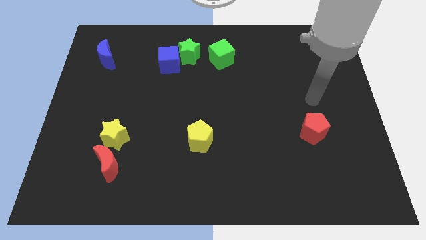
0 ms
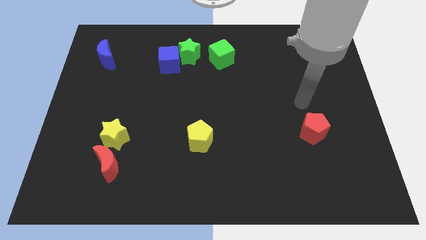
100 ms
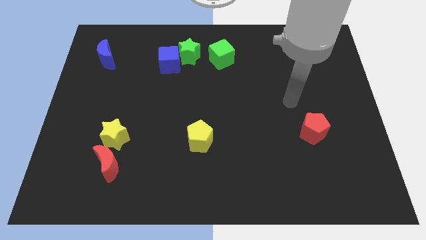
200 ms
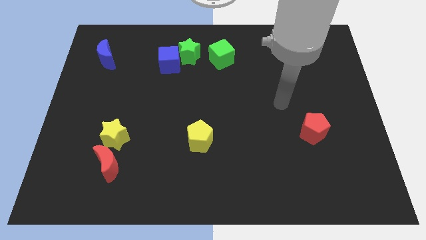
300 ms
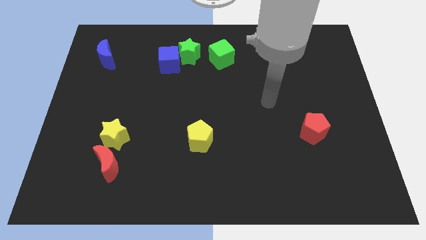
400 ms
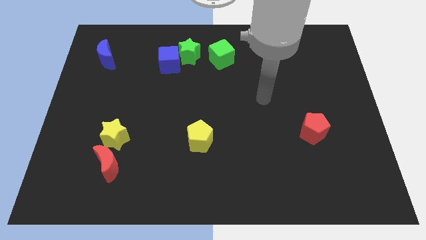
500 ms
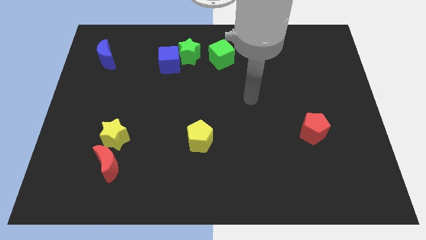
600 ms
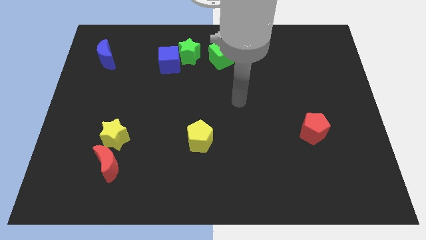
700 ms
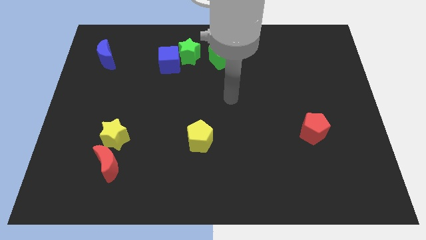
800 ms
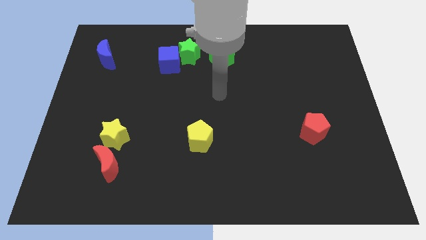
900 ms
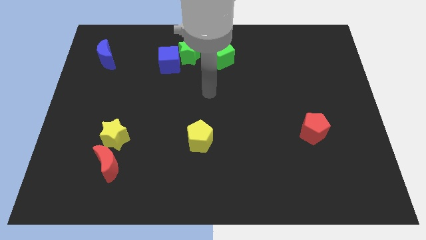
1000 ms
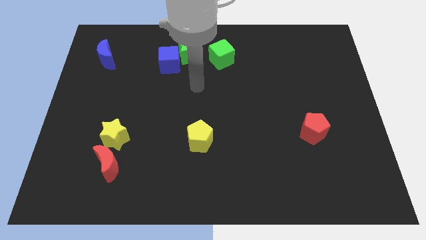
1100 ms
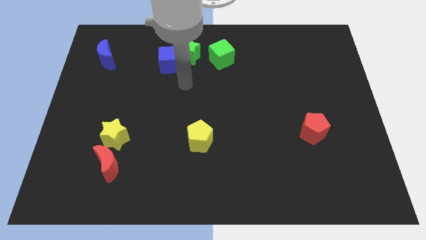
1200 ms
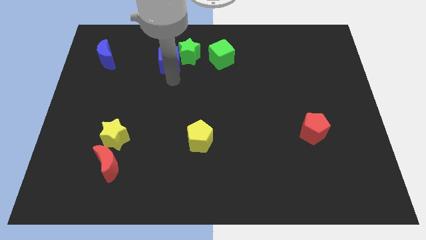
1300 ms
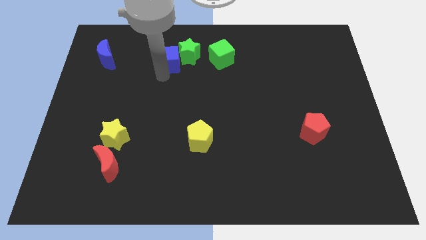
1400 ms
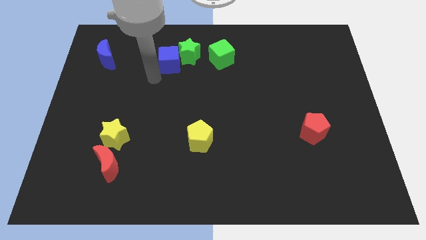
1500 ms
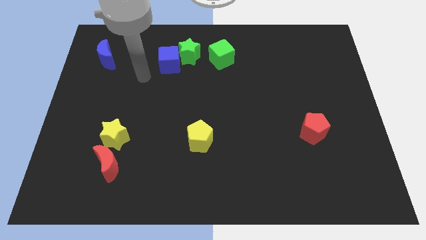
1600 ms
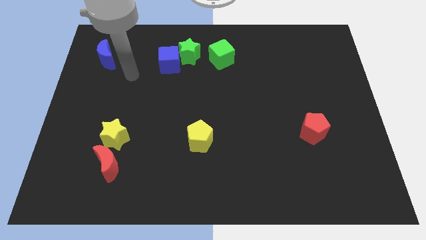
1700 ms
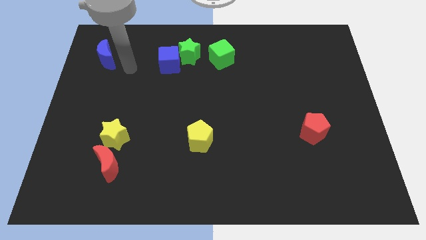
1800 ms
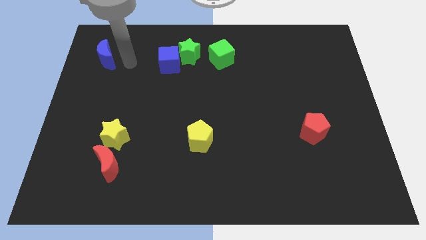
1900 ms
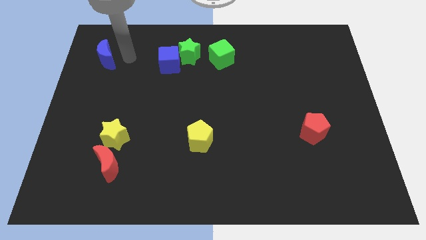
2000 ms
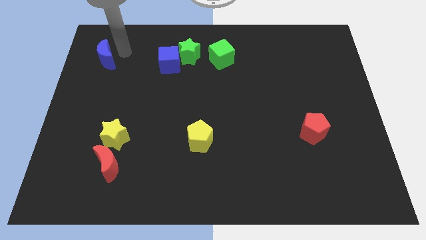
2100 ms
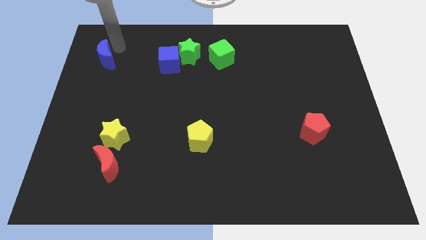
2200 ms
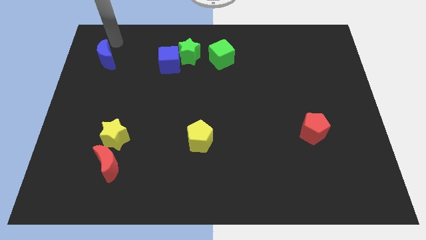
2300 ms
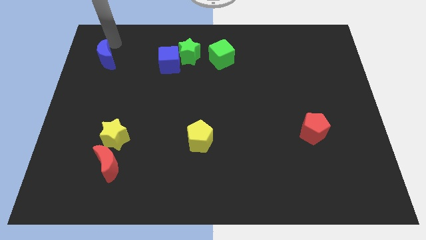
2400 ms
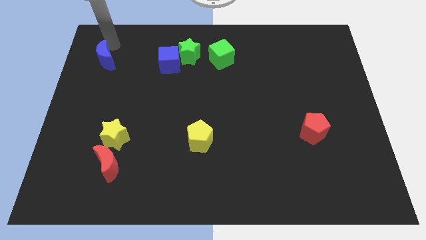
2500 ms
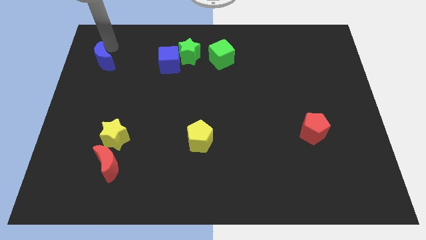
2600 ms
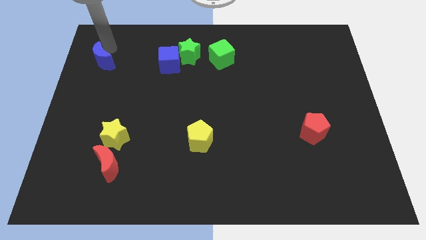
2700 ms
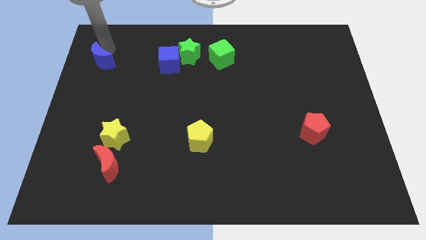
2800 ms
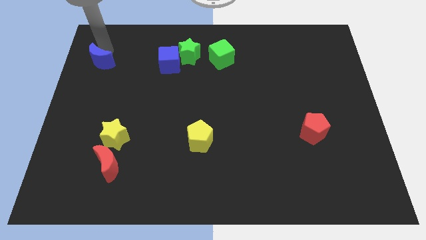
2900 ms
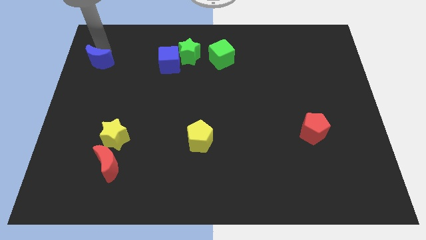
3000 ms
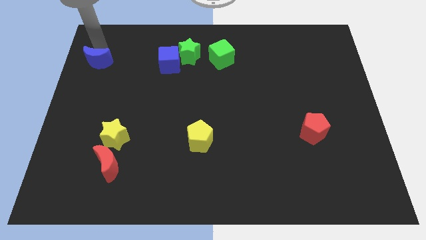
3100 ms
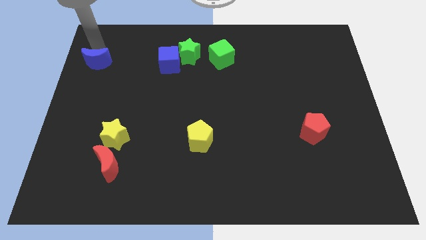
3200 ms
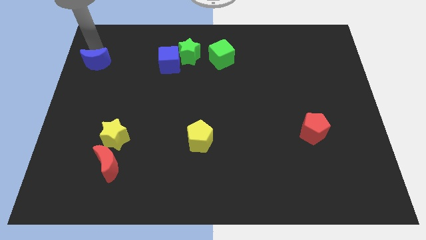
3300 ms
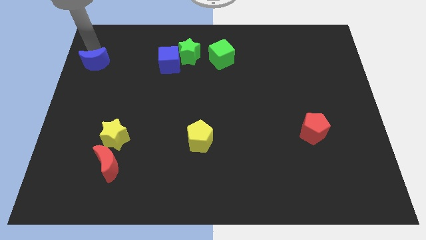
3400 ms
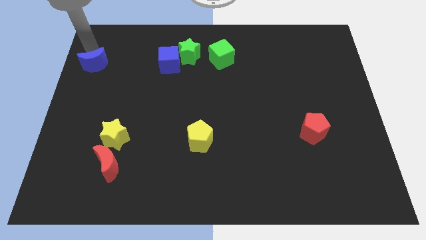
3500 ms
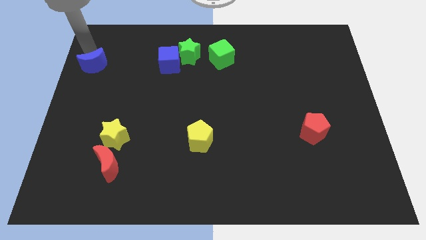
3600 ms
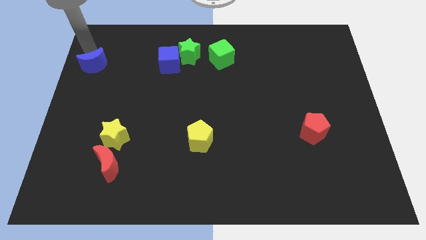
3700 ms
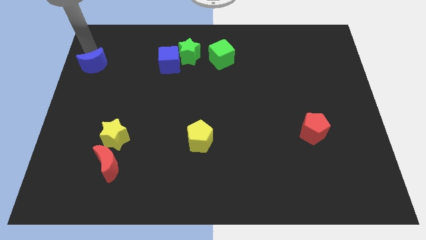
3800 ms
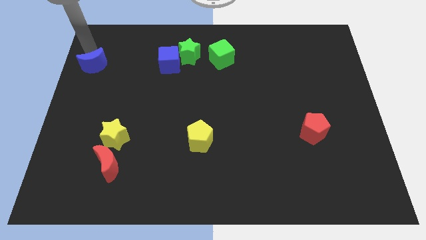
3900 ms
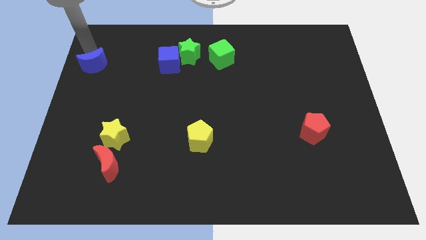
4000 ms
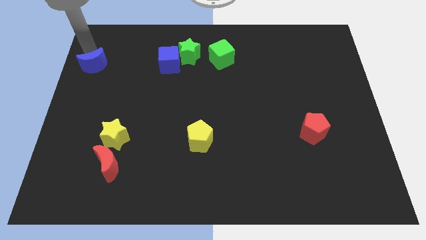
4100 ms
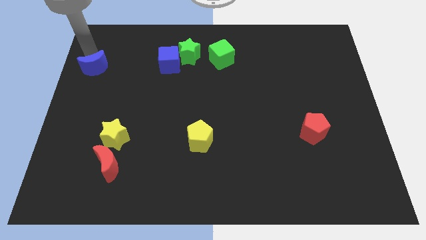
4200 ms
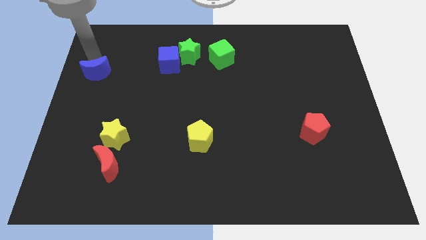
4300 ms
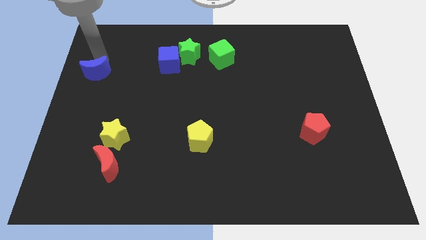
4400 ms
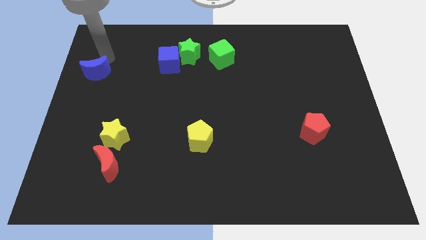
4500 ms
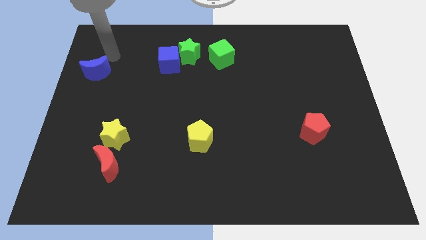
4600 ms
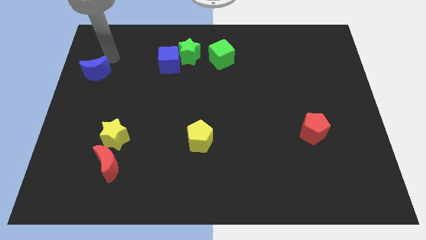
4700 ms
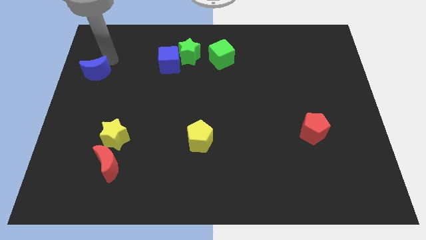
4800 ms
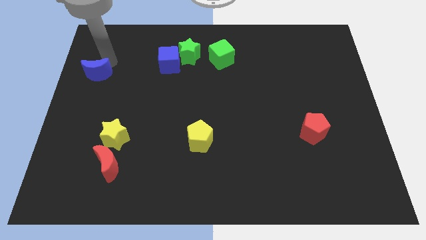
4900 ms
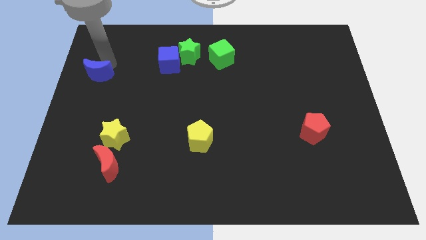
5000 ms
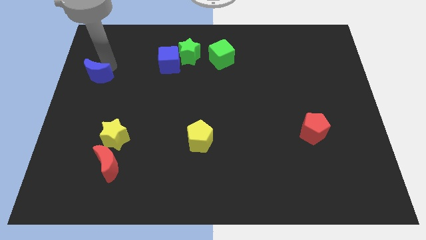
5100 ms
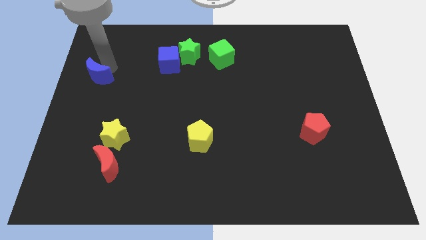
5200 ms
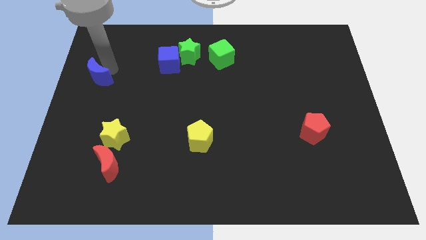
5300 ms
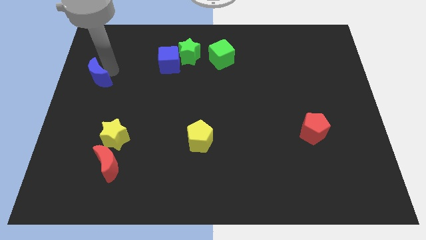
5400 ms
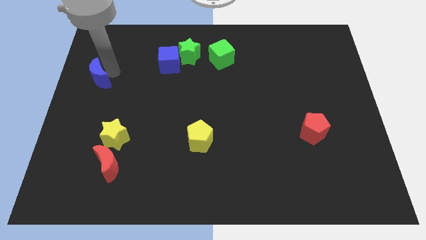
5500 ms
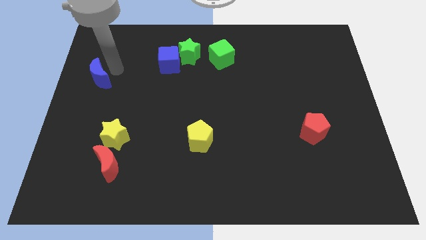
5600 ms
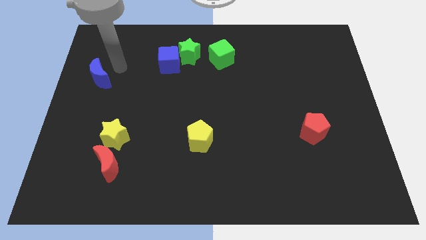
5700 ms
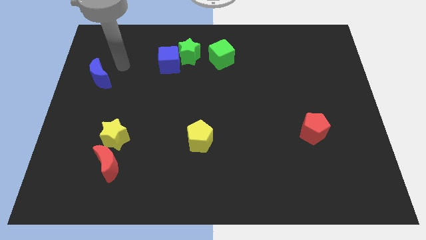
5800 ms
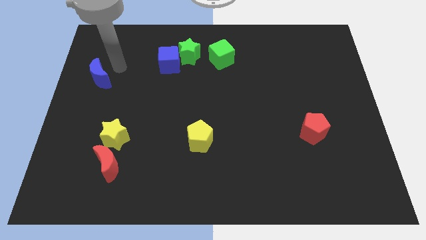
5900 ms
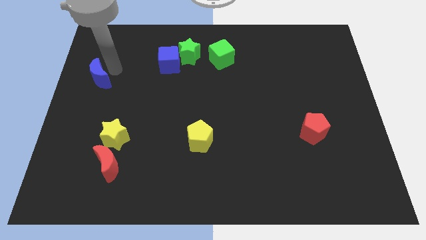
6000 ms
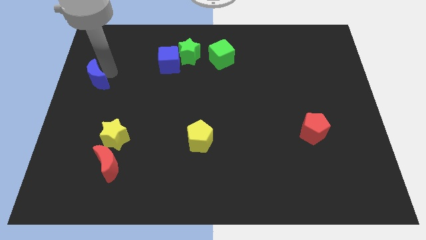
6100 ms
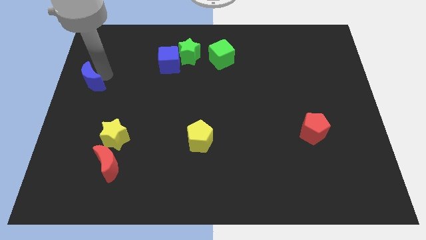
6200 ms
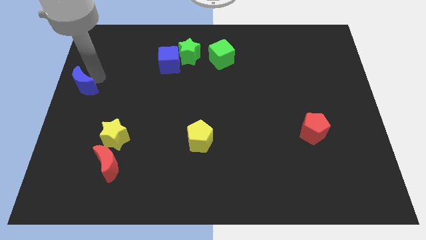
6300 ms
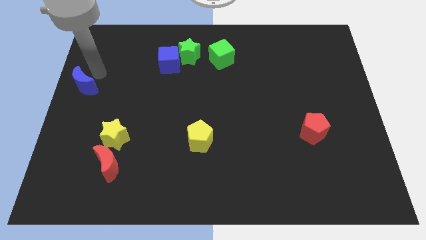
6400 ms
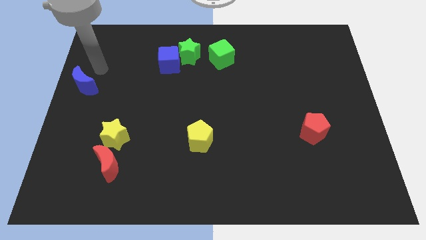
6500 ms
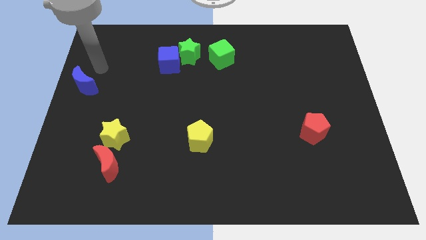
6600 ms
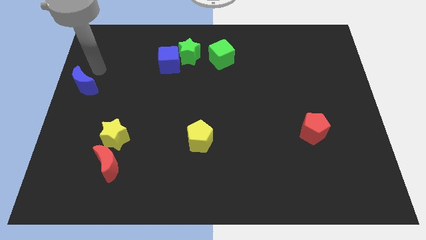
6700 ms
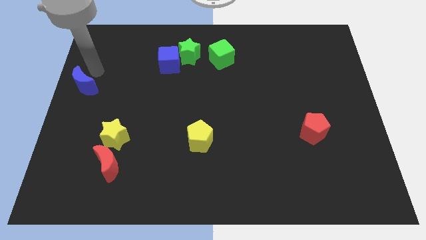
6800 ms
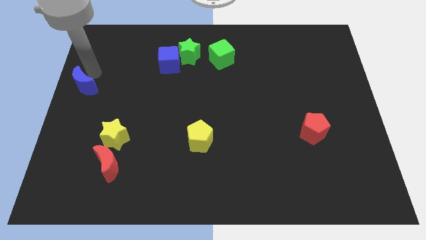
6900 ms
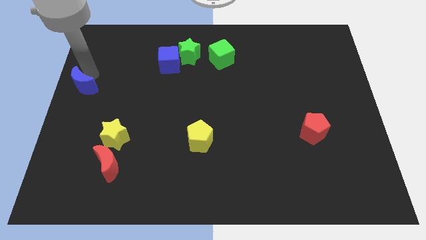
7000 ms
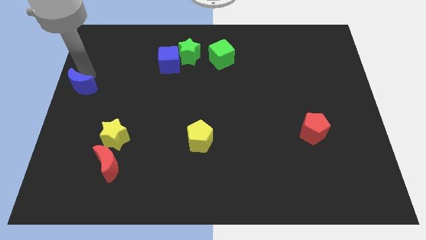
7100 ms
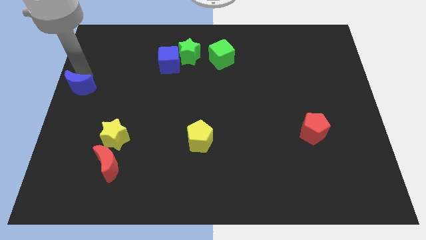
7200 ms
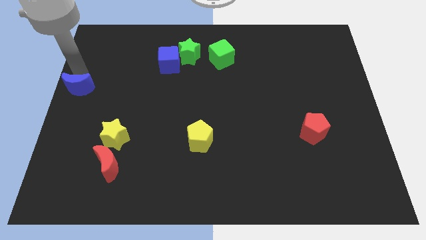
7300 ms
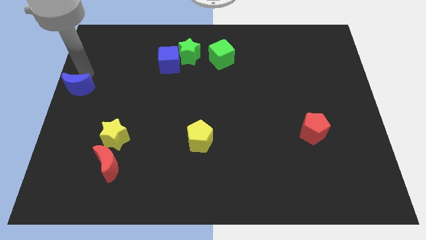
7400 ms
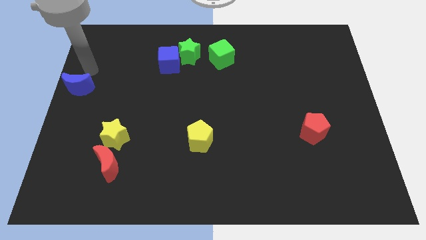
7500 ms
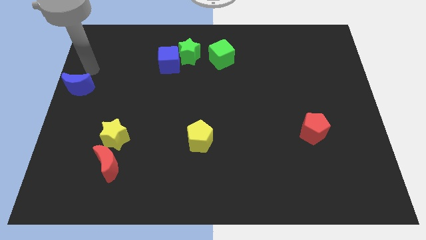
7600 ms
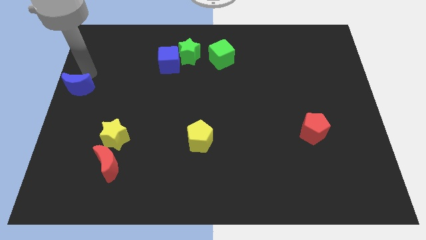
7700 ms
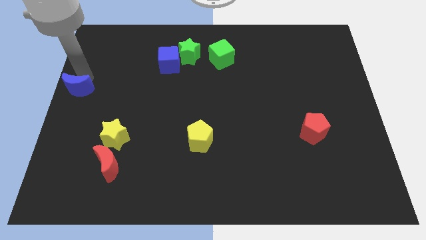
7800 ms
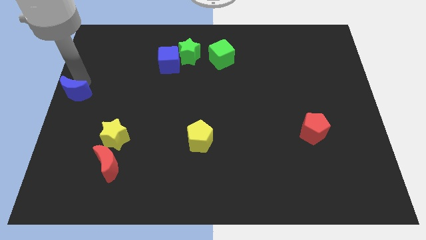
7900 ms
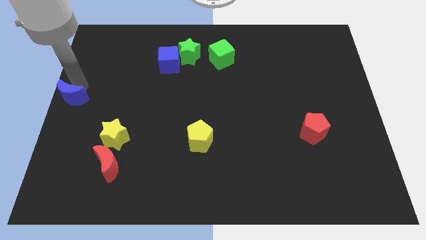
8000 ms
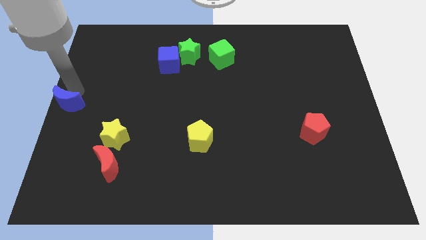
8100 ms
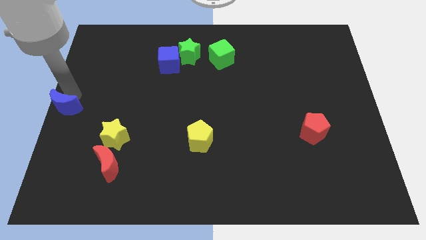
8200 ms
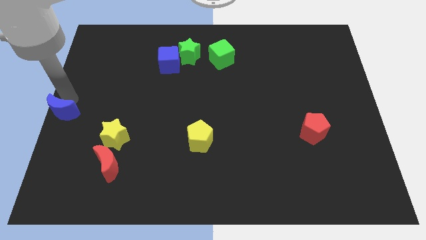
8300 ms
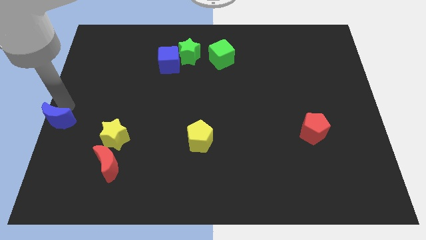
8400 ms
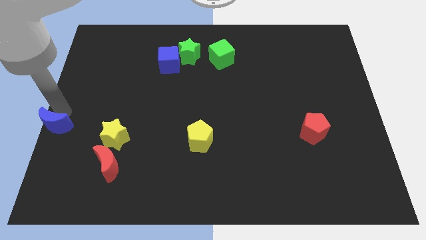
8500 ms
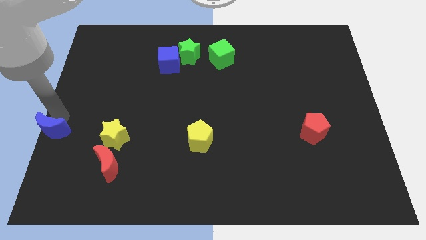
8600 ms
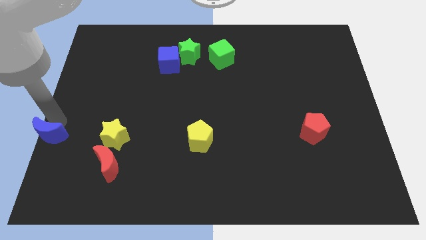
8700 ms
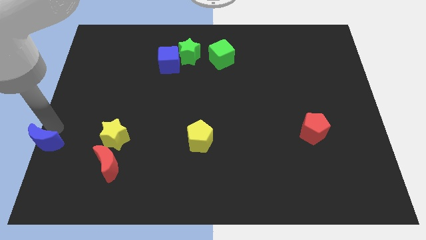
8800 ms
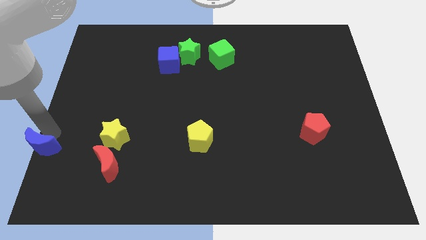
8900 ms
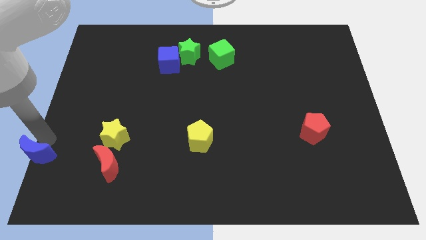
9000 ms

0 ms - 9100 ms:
put the blue moon to the lower left corner
